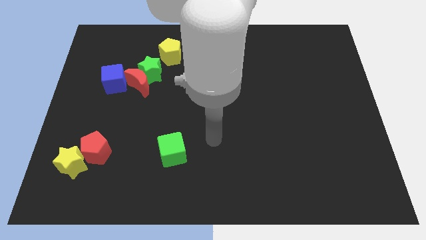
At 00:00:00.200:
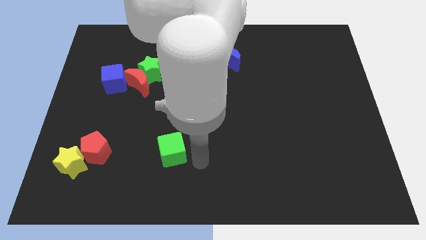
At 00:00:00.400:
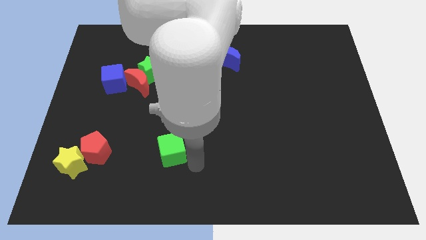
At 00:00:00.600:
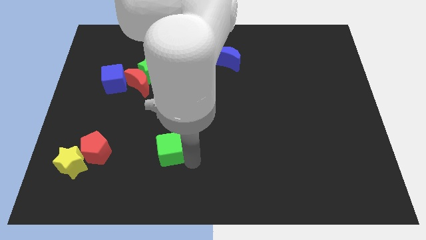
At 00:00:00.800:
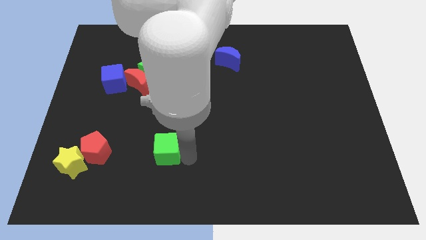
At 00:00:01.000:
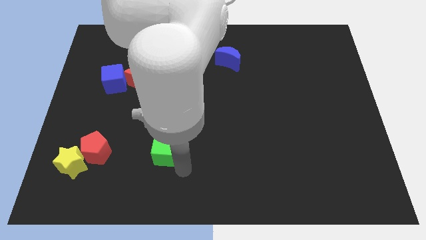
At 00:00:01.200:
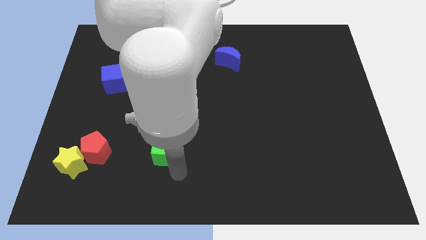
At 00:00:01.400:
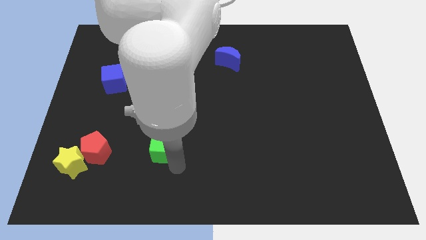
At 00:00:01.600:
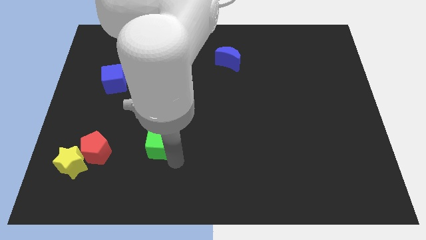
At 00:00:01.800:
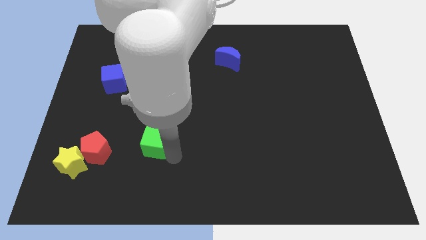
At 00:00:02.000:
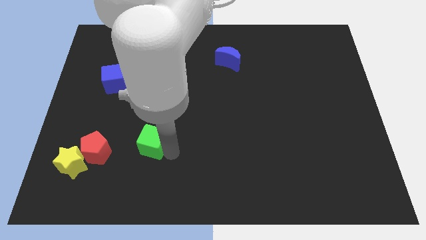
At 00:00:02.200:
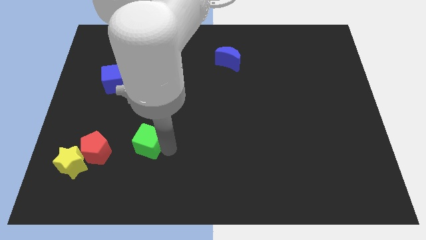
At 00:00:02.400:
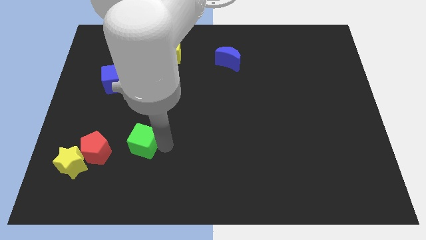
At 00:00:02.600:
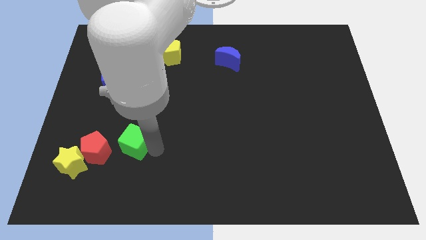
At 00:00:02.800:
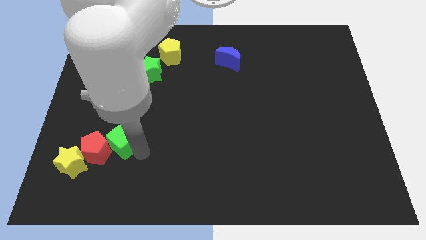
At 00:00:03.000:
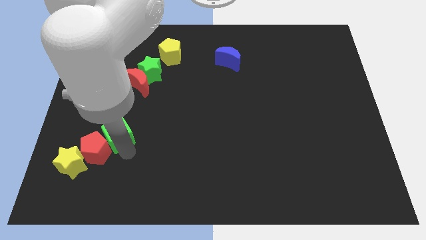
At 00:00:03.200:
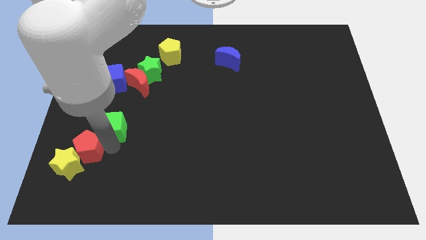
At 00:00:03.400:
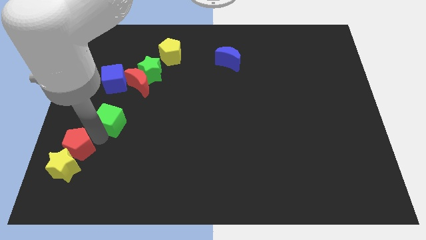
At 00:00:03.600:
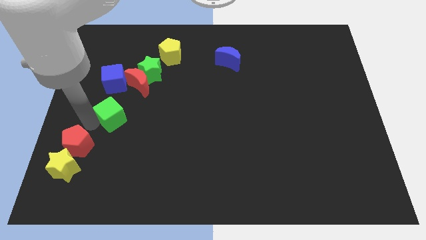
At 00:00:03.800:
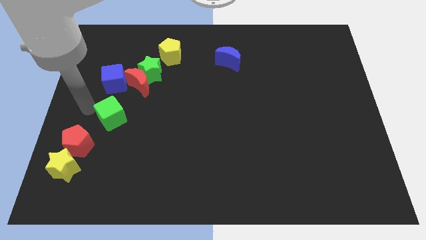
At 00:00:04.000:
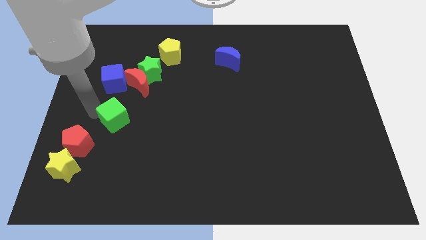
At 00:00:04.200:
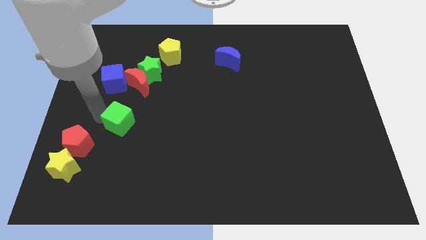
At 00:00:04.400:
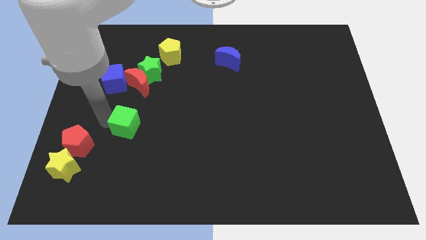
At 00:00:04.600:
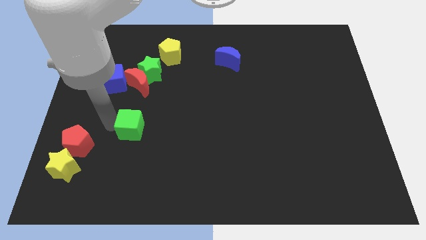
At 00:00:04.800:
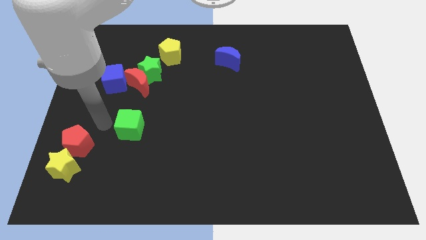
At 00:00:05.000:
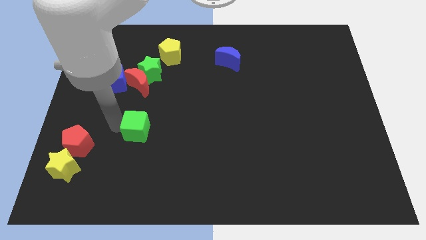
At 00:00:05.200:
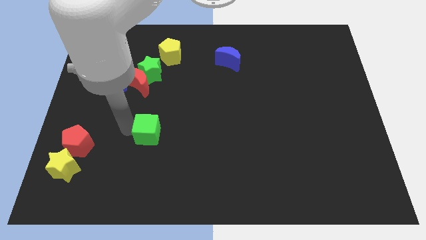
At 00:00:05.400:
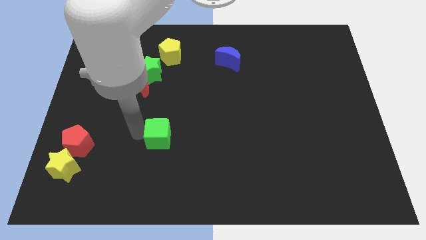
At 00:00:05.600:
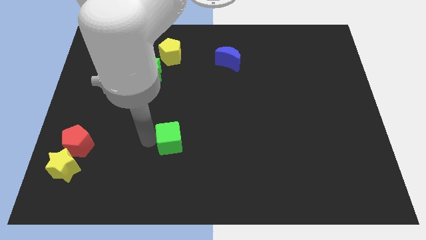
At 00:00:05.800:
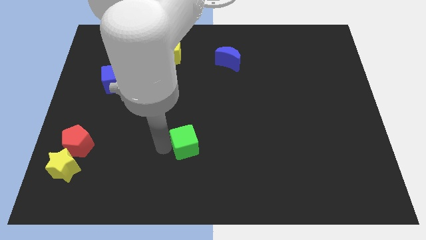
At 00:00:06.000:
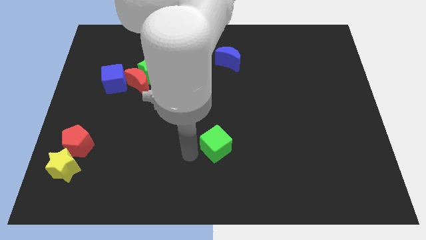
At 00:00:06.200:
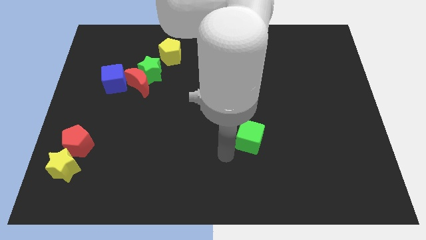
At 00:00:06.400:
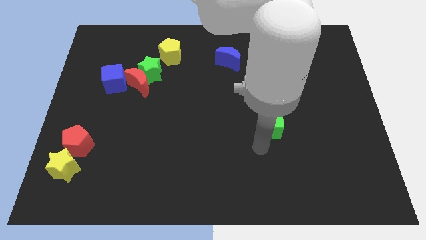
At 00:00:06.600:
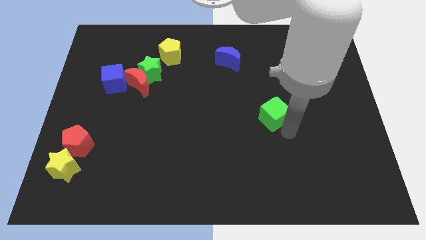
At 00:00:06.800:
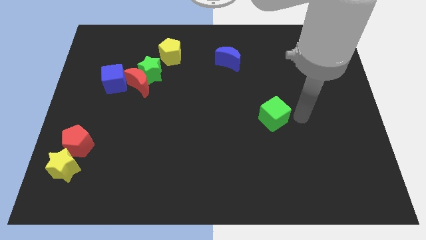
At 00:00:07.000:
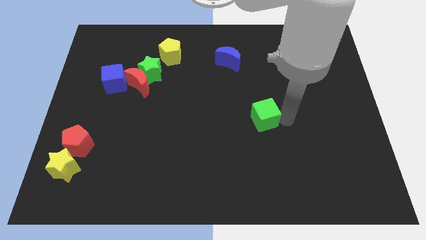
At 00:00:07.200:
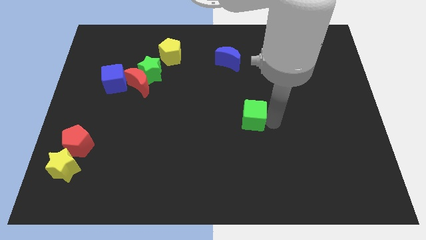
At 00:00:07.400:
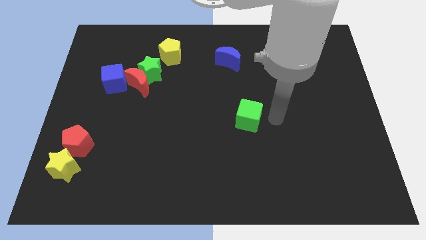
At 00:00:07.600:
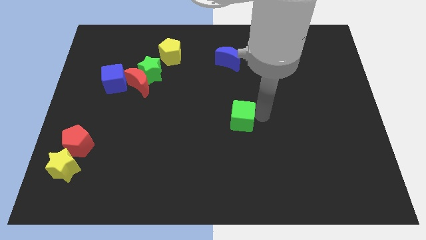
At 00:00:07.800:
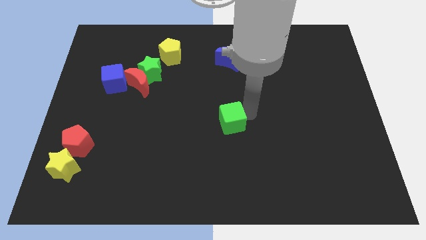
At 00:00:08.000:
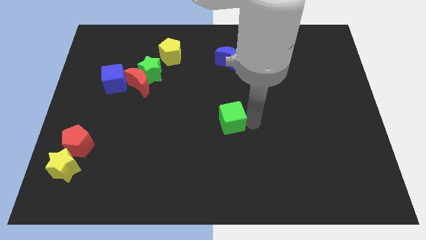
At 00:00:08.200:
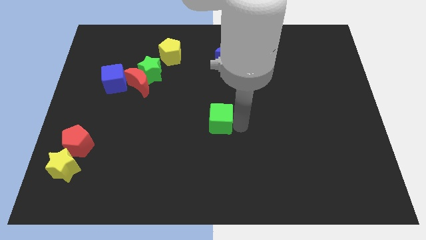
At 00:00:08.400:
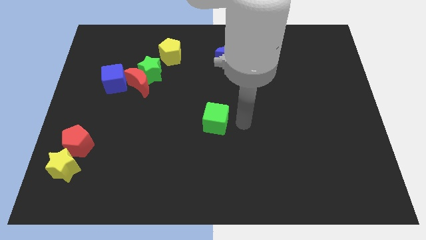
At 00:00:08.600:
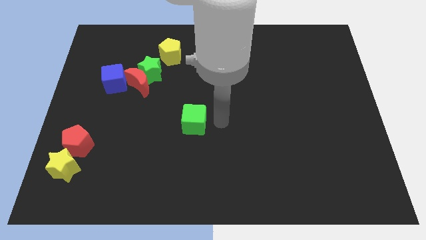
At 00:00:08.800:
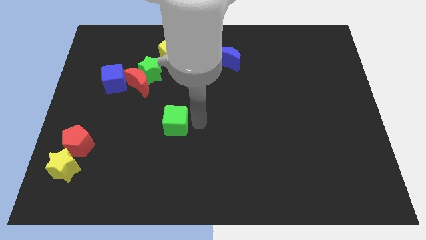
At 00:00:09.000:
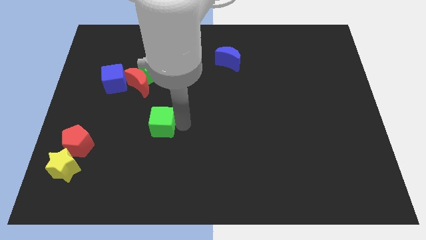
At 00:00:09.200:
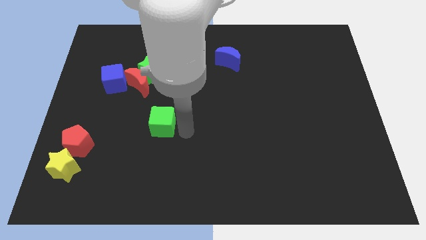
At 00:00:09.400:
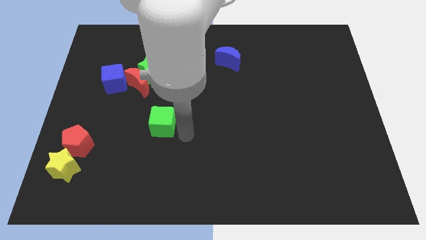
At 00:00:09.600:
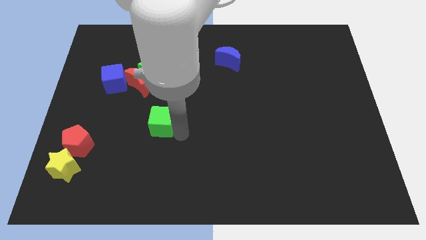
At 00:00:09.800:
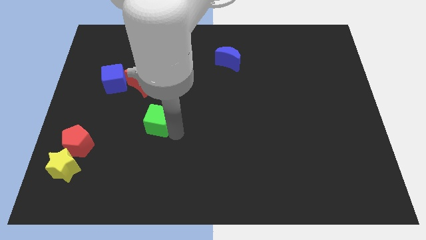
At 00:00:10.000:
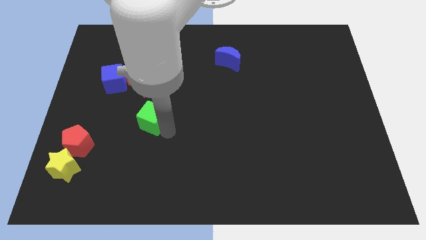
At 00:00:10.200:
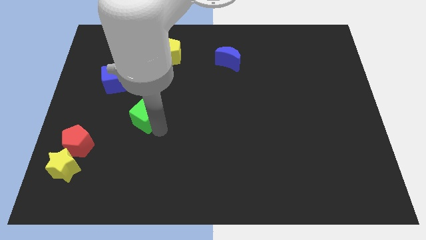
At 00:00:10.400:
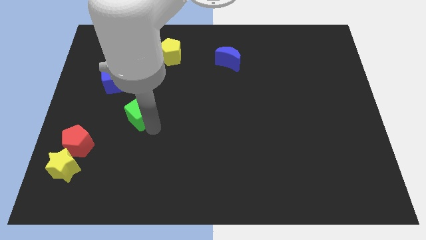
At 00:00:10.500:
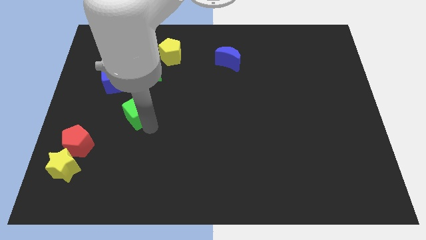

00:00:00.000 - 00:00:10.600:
push the green cube to the bottom right of the blue cube
